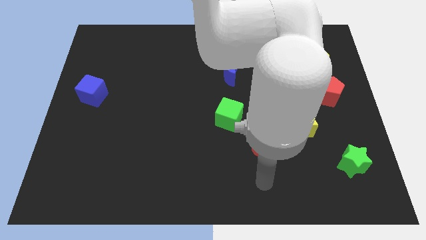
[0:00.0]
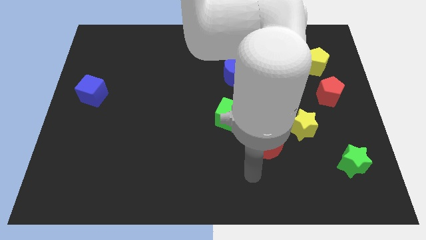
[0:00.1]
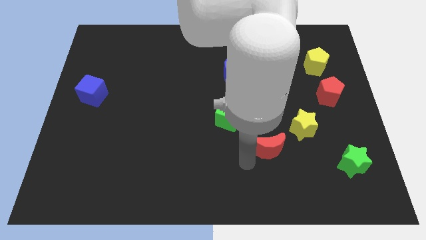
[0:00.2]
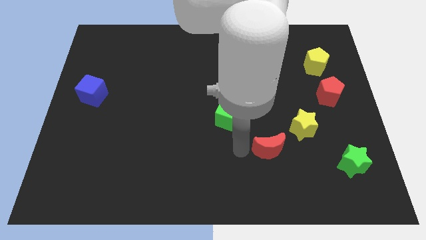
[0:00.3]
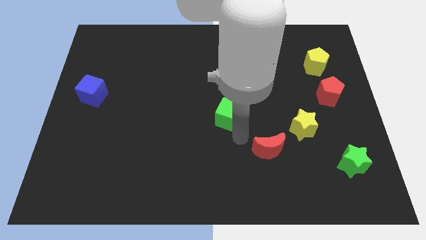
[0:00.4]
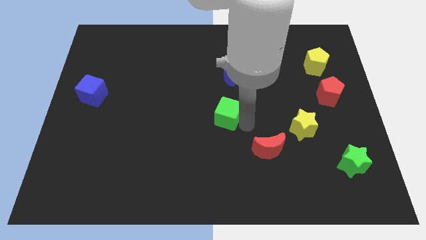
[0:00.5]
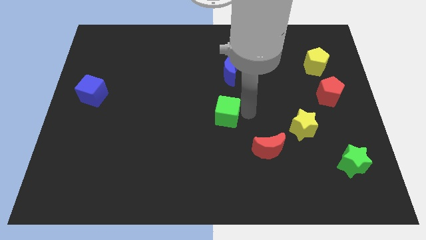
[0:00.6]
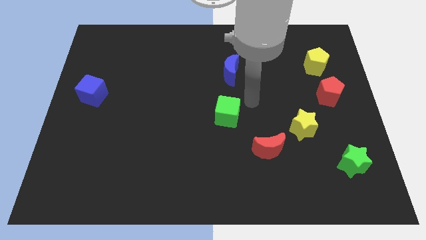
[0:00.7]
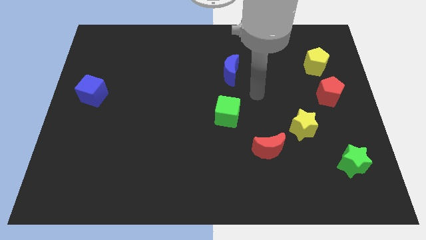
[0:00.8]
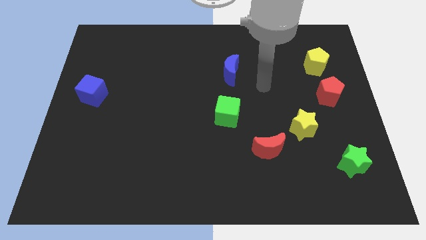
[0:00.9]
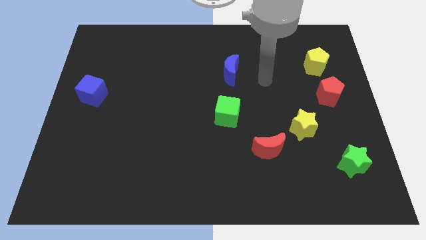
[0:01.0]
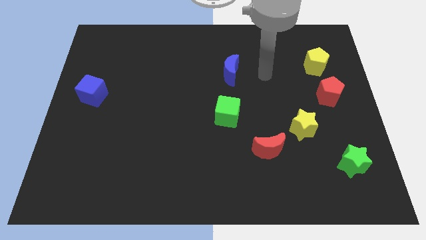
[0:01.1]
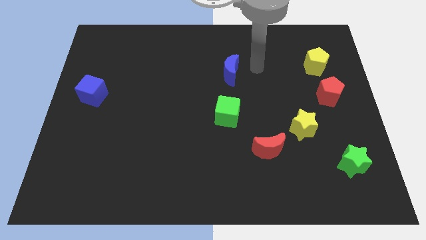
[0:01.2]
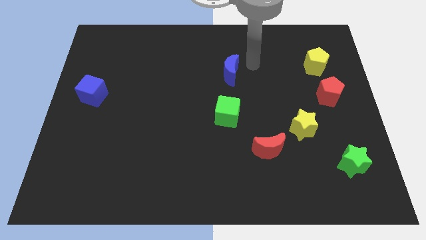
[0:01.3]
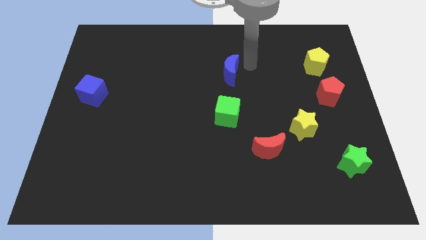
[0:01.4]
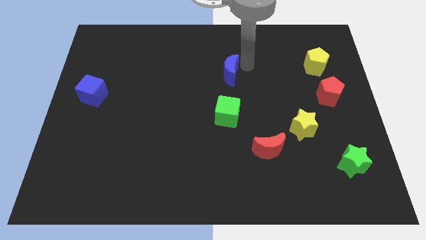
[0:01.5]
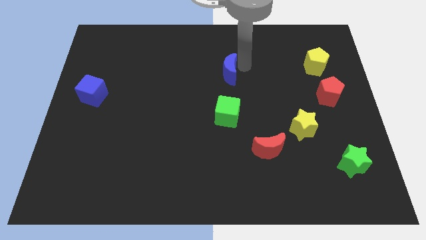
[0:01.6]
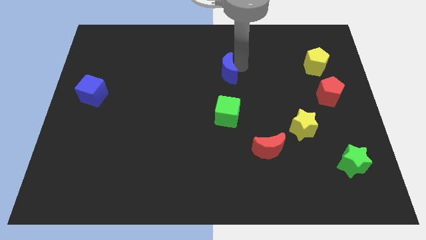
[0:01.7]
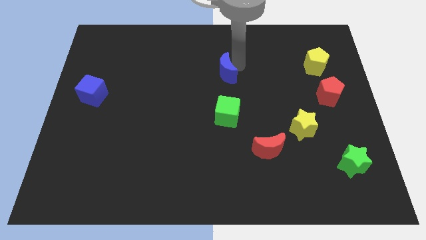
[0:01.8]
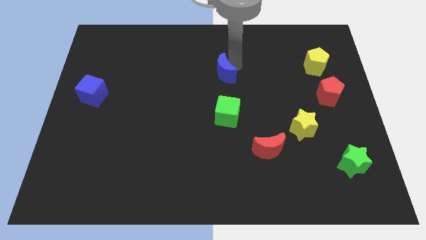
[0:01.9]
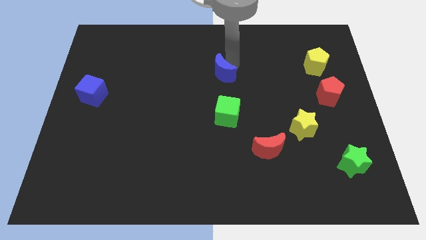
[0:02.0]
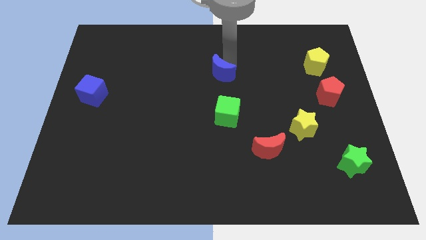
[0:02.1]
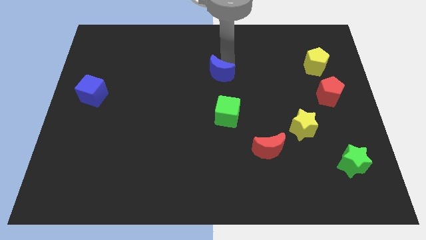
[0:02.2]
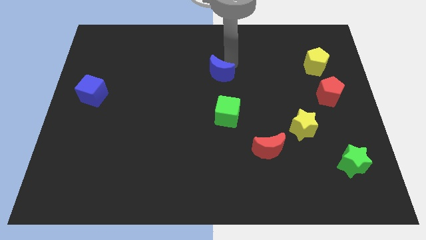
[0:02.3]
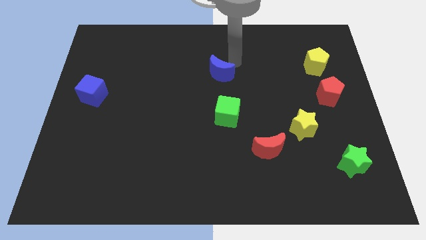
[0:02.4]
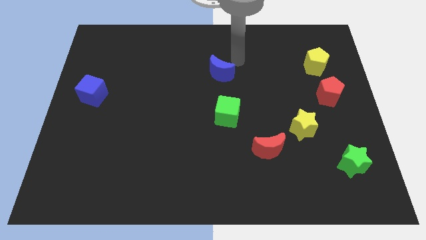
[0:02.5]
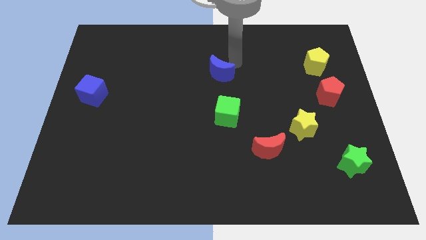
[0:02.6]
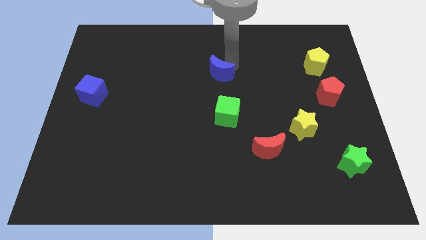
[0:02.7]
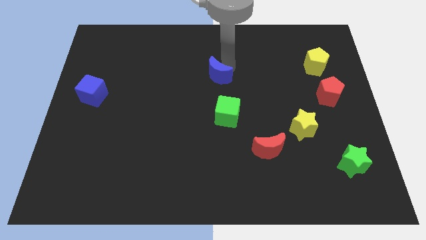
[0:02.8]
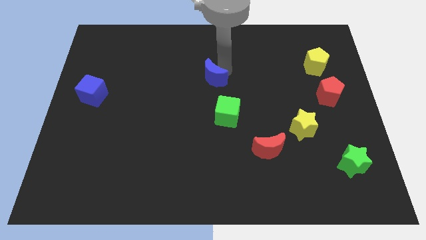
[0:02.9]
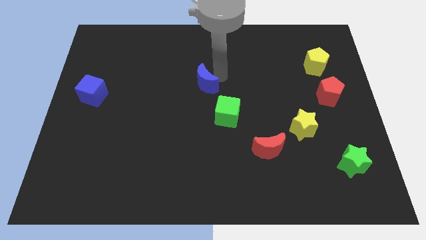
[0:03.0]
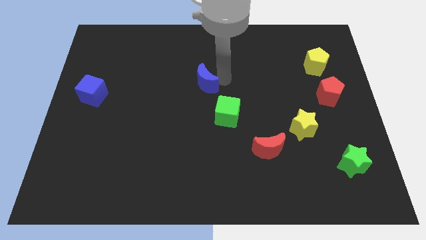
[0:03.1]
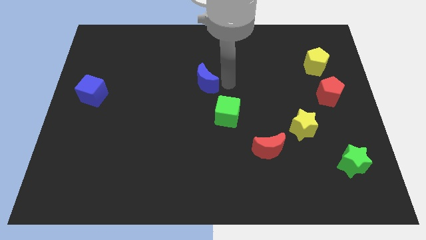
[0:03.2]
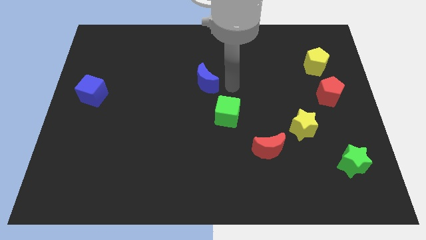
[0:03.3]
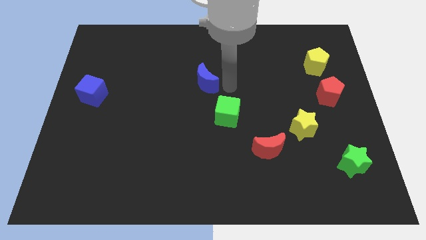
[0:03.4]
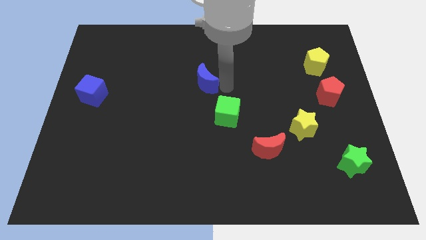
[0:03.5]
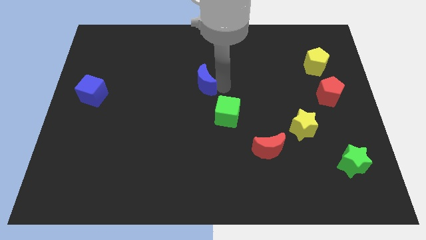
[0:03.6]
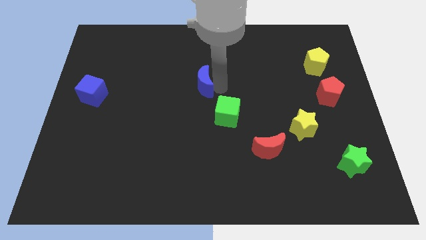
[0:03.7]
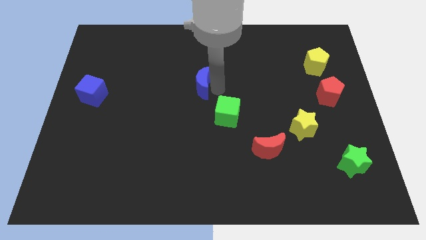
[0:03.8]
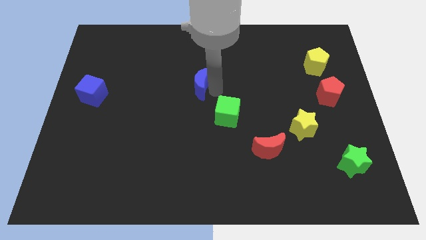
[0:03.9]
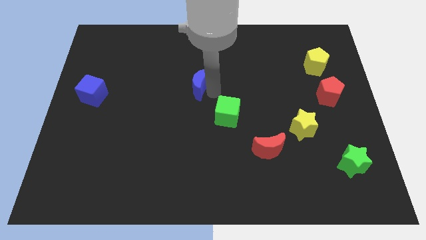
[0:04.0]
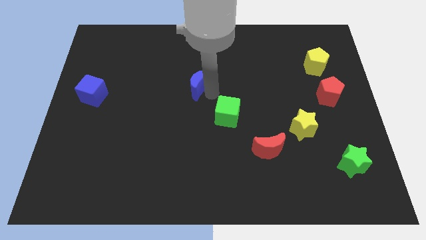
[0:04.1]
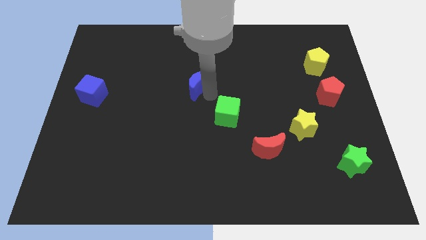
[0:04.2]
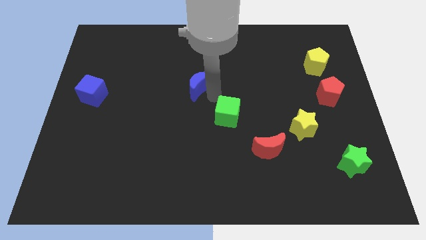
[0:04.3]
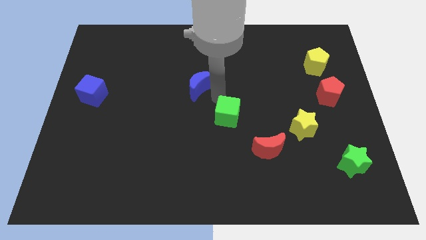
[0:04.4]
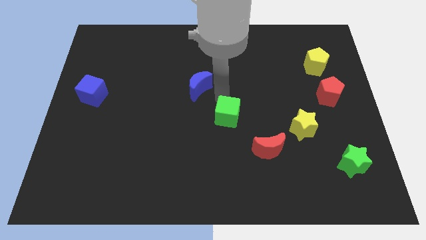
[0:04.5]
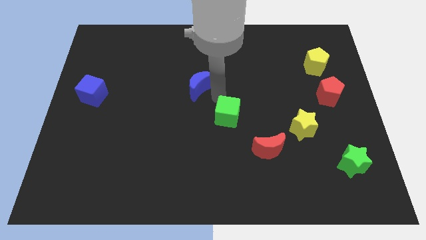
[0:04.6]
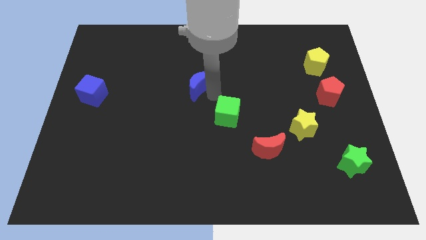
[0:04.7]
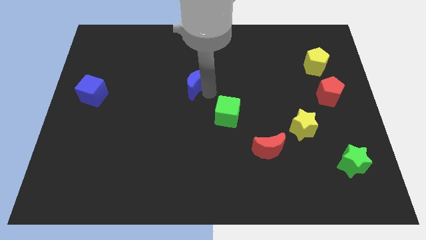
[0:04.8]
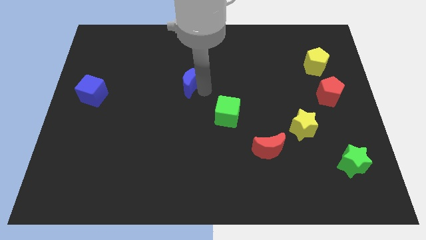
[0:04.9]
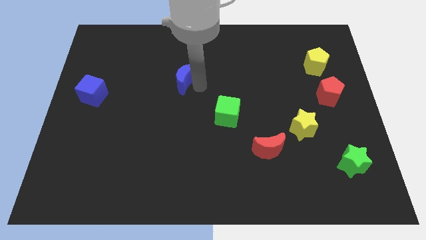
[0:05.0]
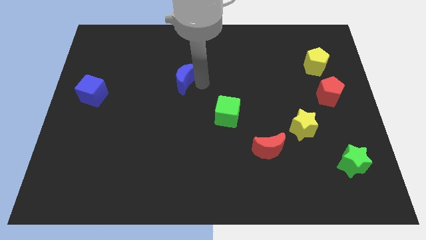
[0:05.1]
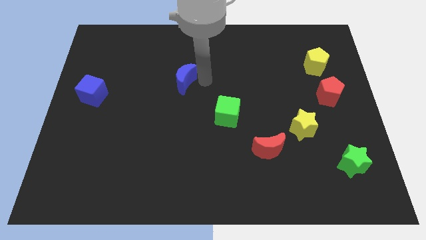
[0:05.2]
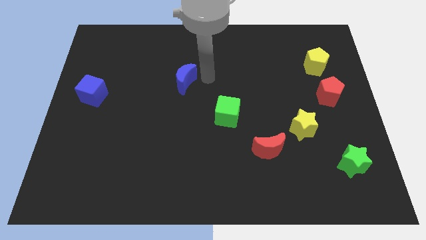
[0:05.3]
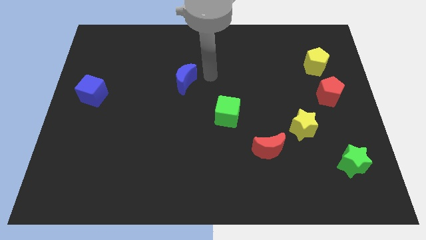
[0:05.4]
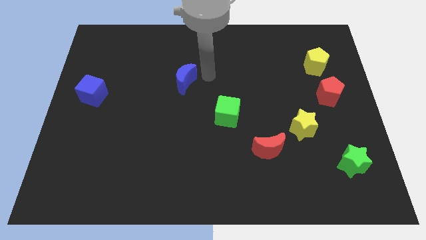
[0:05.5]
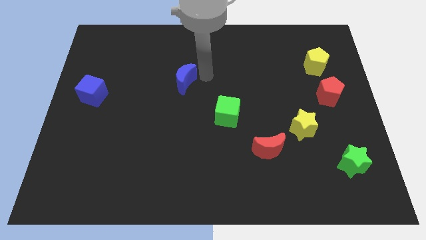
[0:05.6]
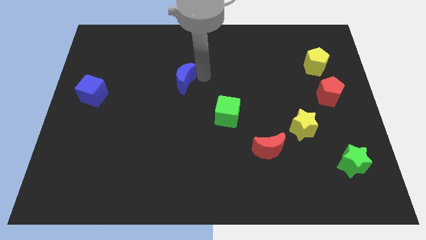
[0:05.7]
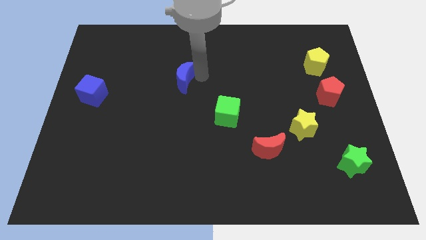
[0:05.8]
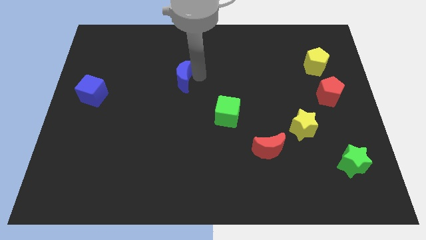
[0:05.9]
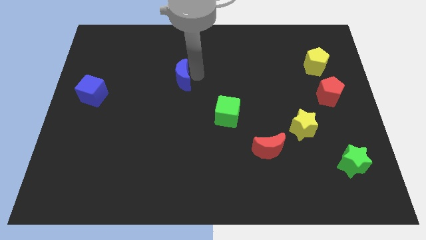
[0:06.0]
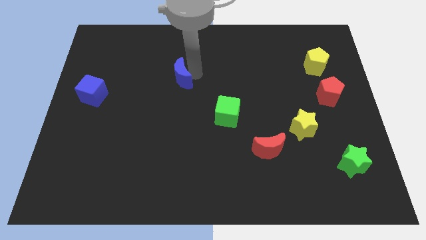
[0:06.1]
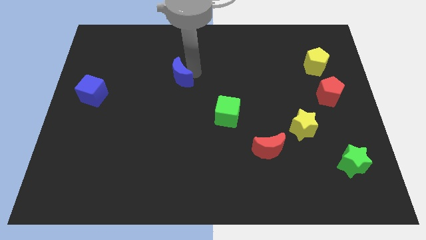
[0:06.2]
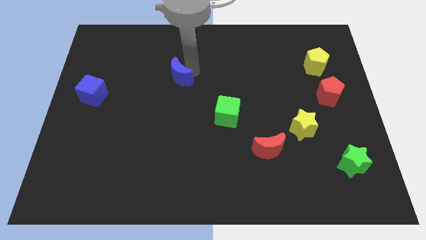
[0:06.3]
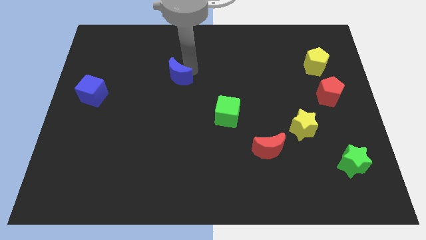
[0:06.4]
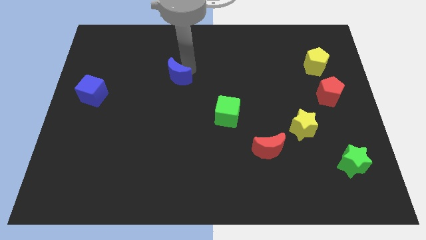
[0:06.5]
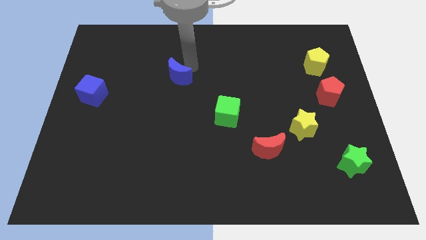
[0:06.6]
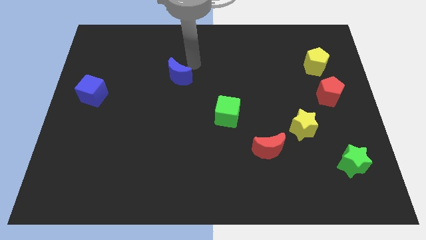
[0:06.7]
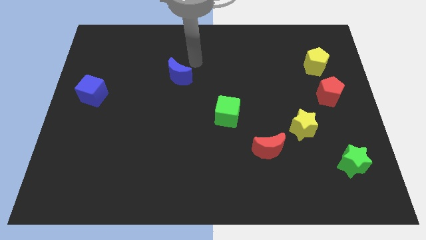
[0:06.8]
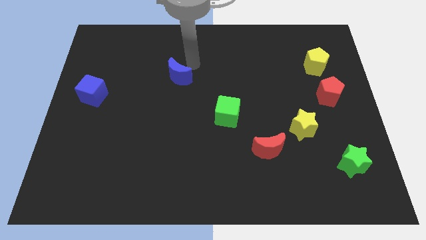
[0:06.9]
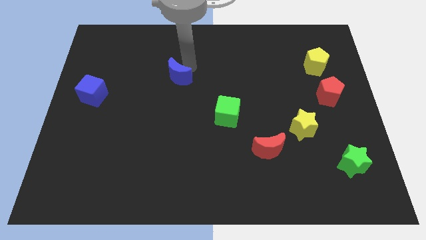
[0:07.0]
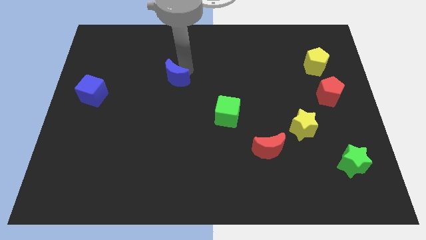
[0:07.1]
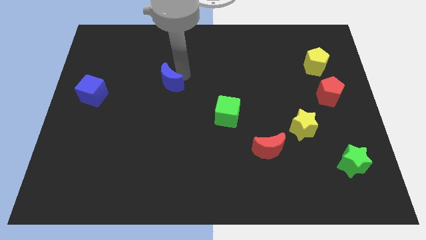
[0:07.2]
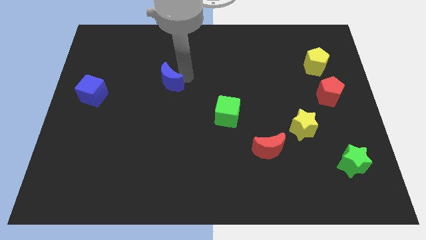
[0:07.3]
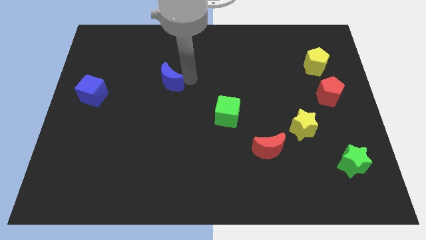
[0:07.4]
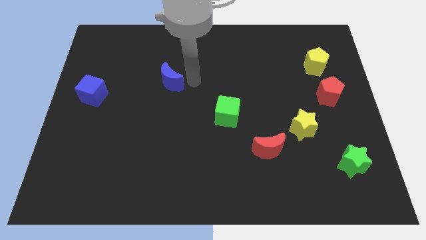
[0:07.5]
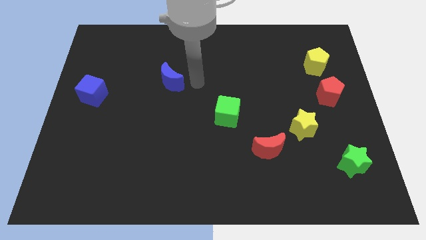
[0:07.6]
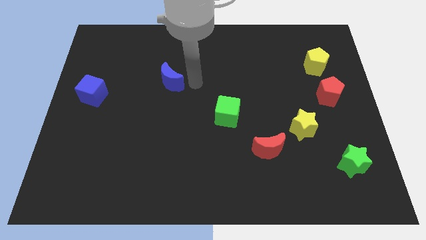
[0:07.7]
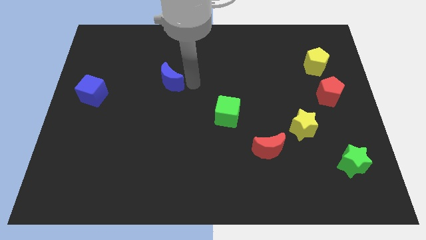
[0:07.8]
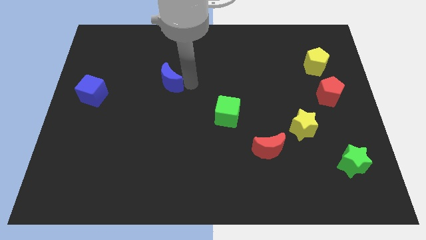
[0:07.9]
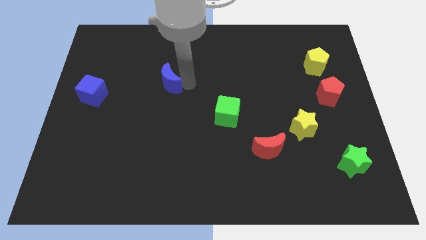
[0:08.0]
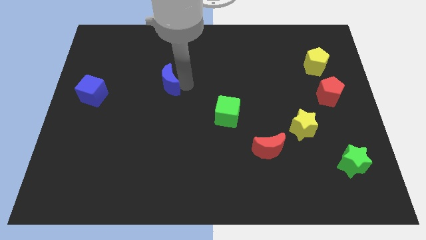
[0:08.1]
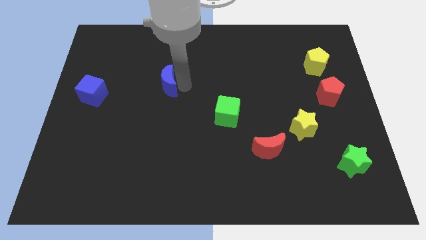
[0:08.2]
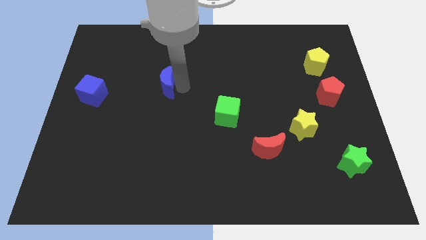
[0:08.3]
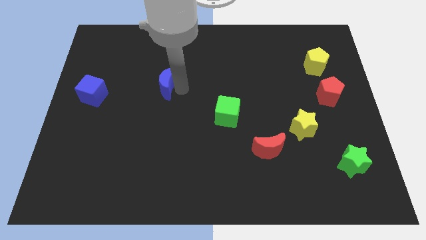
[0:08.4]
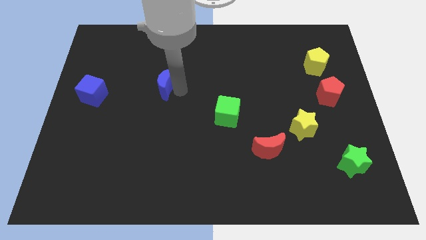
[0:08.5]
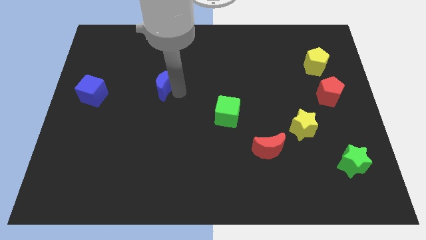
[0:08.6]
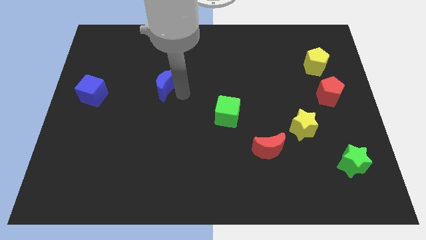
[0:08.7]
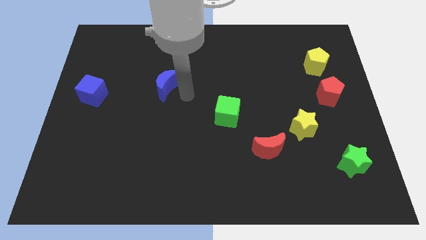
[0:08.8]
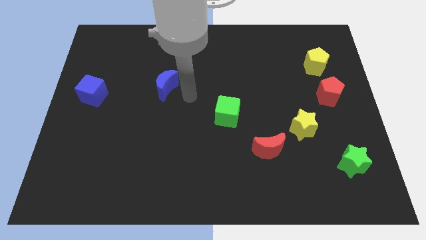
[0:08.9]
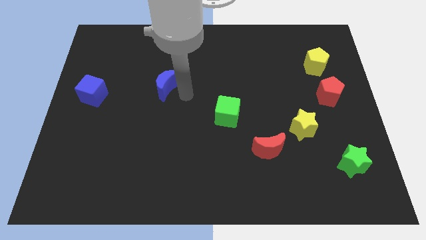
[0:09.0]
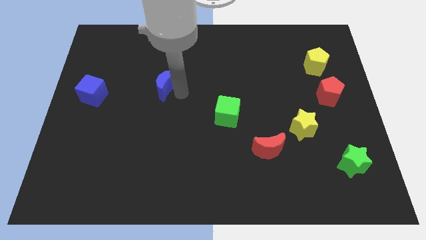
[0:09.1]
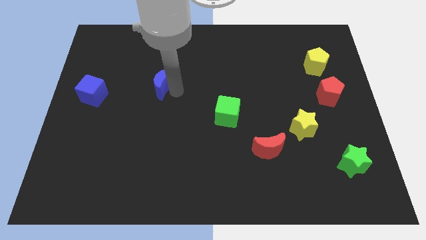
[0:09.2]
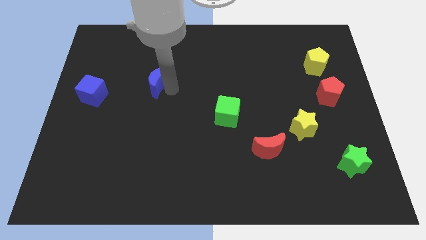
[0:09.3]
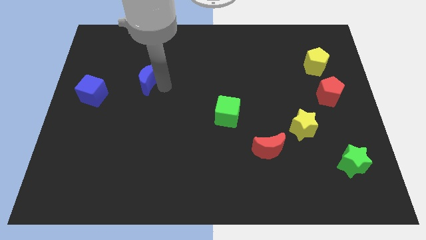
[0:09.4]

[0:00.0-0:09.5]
move the blue moon left
